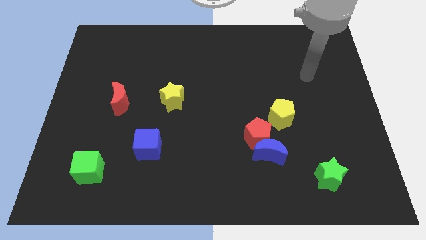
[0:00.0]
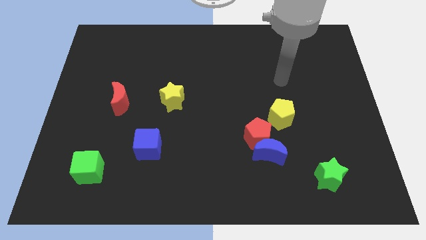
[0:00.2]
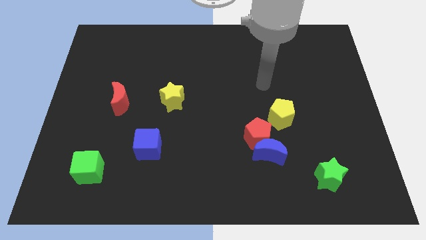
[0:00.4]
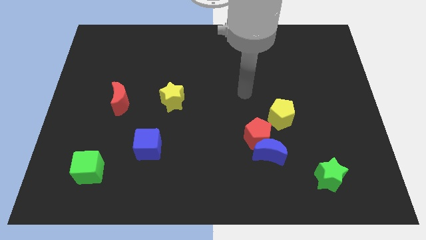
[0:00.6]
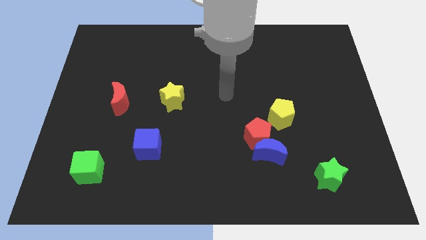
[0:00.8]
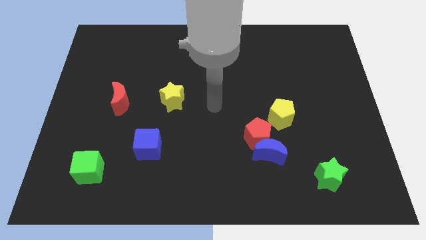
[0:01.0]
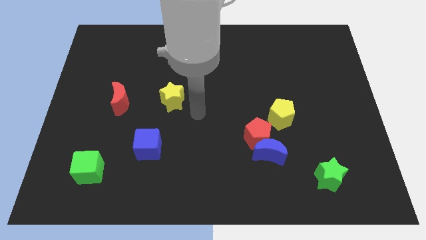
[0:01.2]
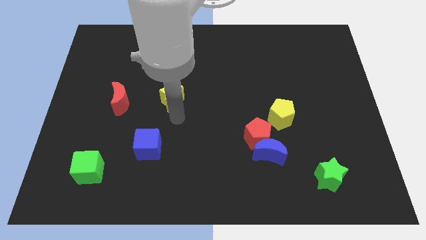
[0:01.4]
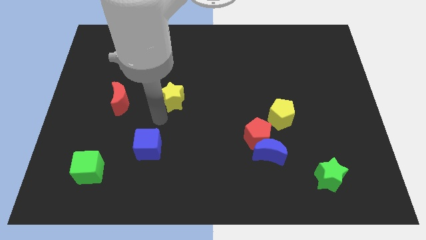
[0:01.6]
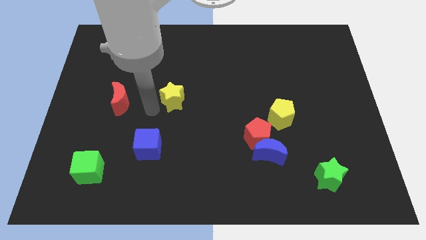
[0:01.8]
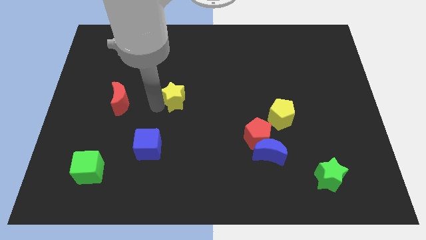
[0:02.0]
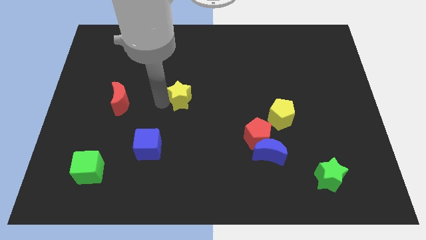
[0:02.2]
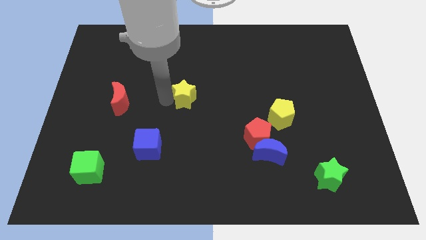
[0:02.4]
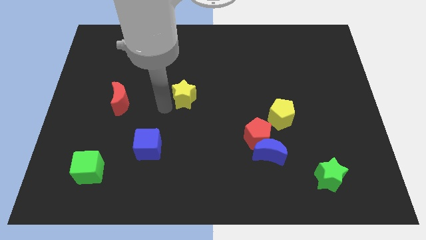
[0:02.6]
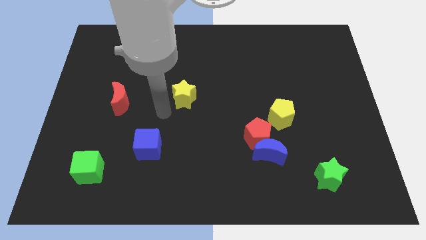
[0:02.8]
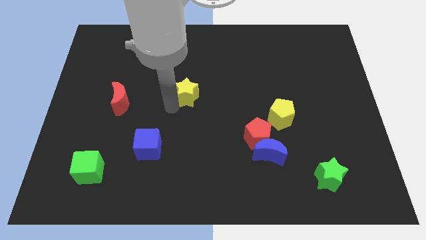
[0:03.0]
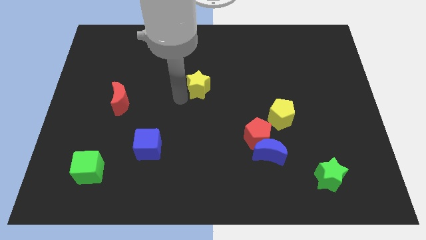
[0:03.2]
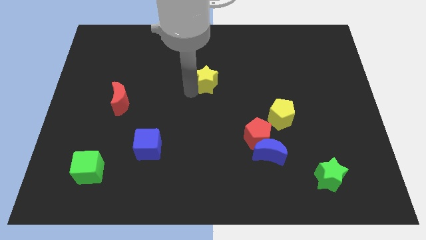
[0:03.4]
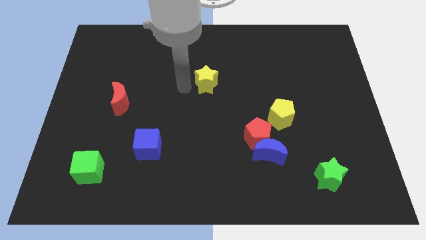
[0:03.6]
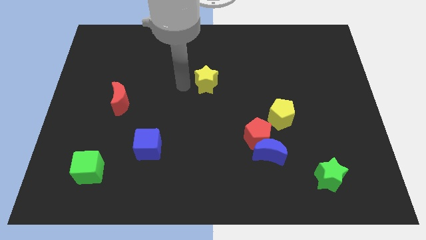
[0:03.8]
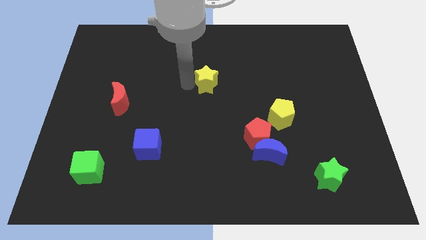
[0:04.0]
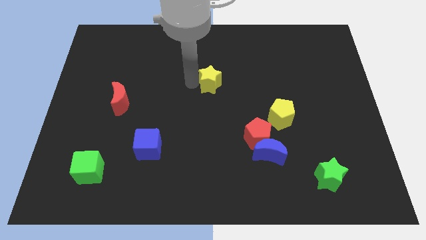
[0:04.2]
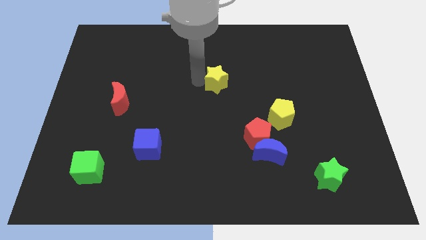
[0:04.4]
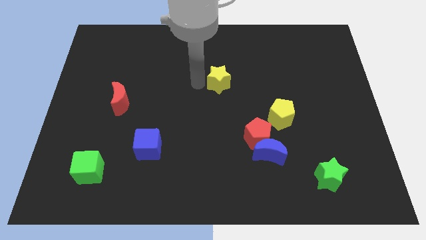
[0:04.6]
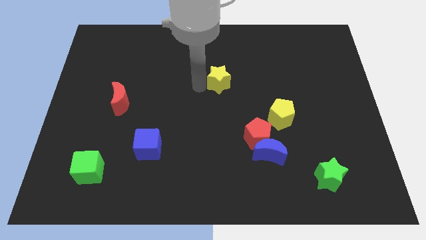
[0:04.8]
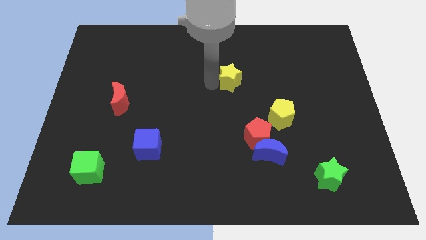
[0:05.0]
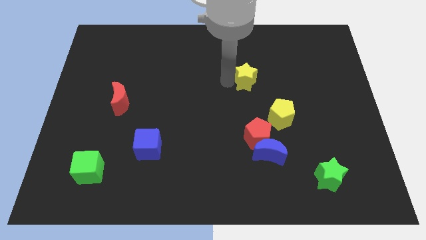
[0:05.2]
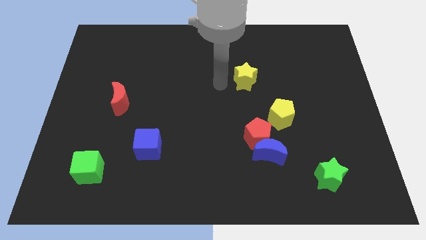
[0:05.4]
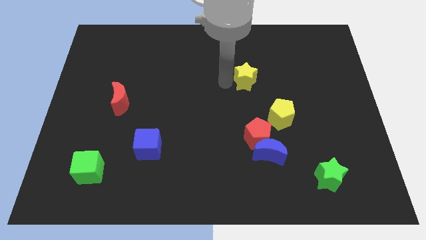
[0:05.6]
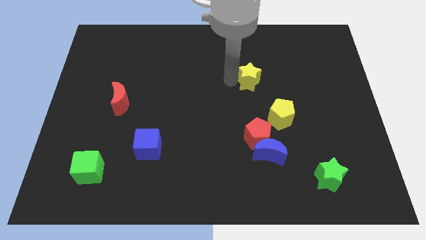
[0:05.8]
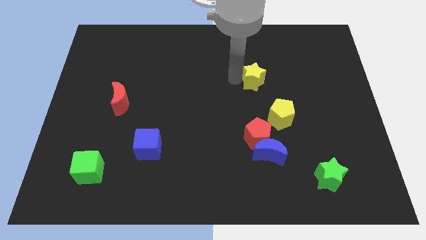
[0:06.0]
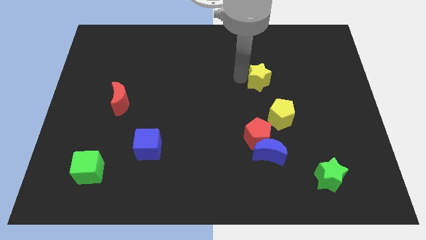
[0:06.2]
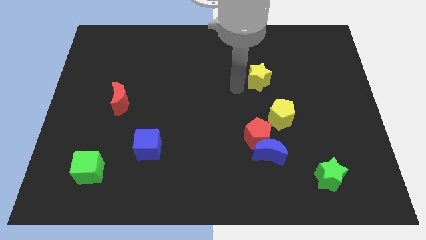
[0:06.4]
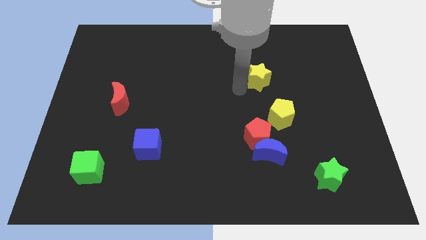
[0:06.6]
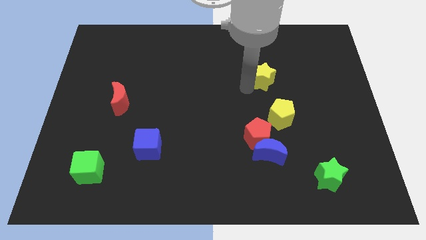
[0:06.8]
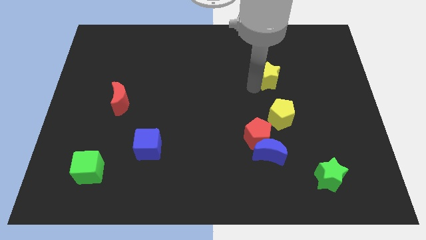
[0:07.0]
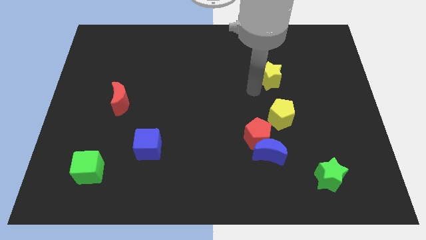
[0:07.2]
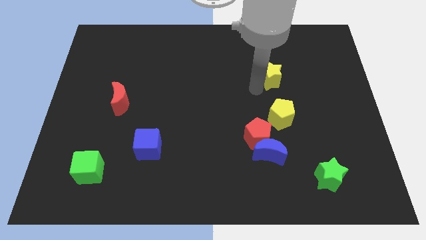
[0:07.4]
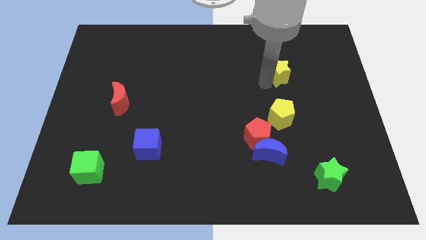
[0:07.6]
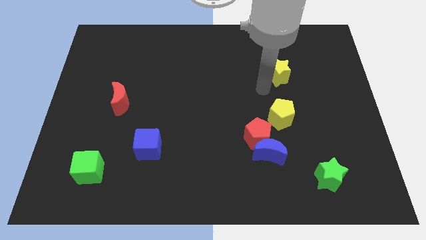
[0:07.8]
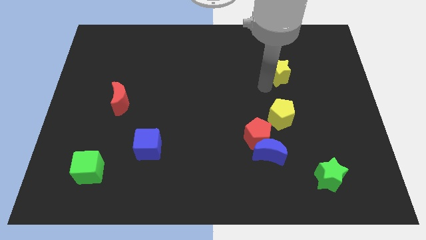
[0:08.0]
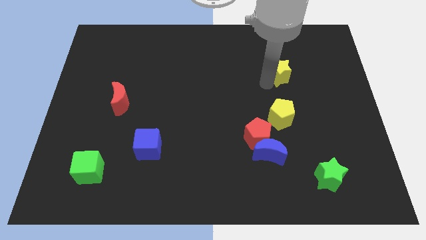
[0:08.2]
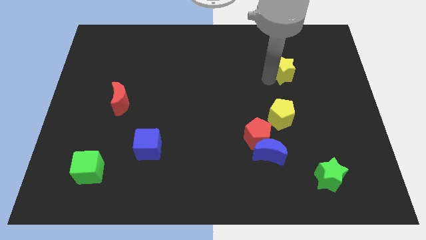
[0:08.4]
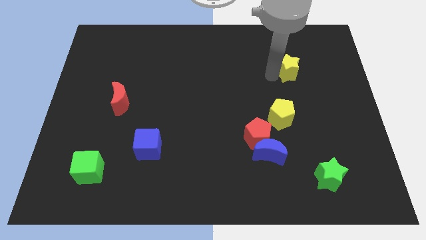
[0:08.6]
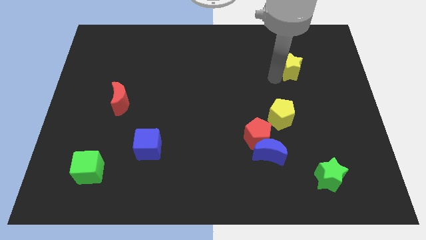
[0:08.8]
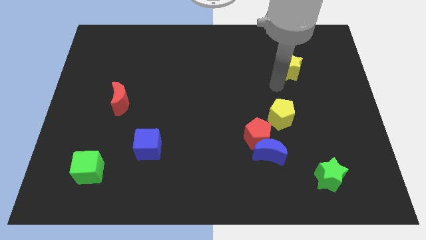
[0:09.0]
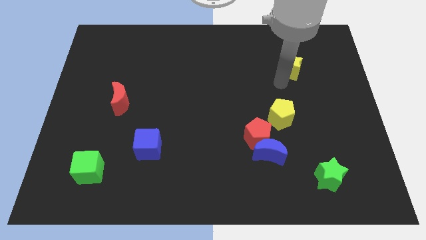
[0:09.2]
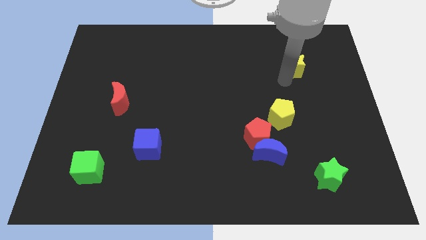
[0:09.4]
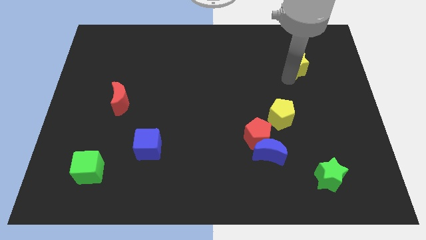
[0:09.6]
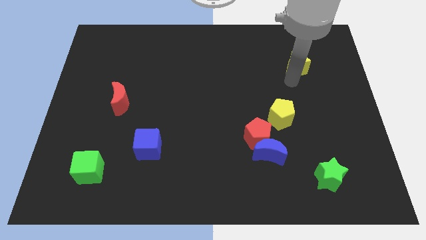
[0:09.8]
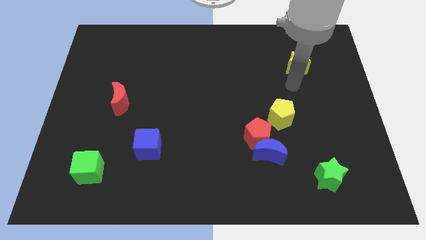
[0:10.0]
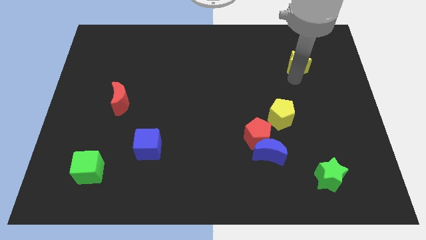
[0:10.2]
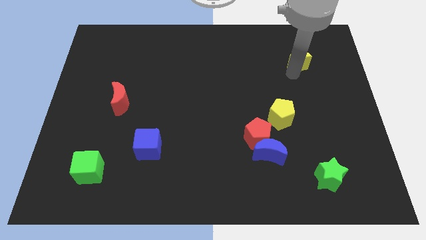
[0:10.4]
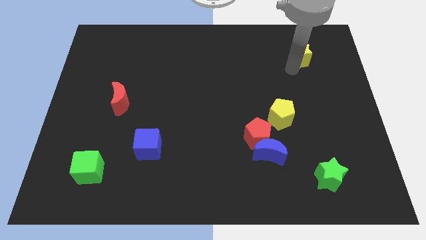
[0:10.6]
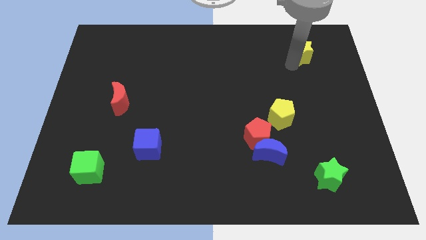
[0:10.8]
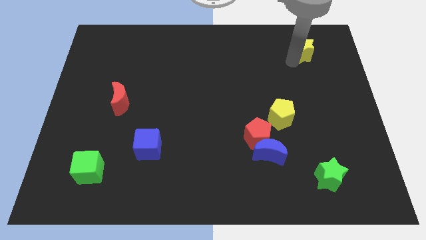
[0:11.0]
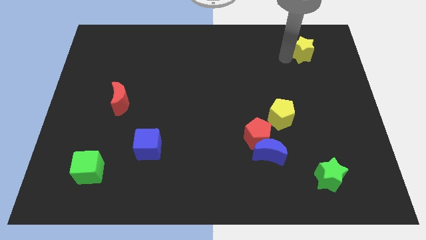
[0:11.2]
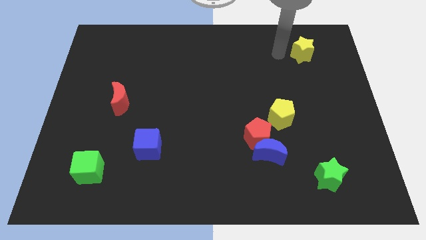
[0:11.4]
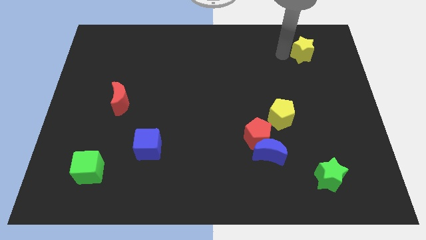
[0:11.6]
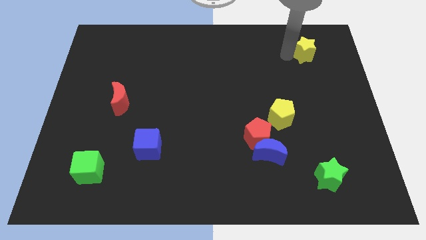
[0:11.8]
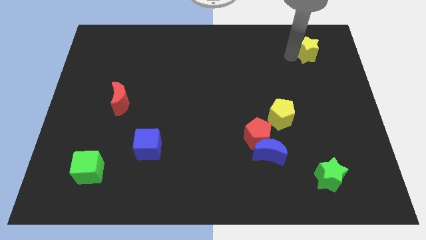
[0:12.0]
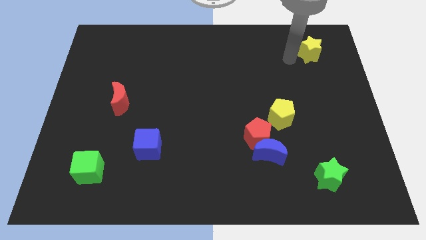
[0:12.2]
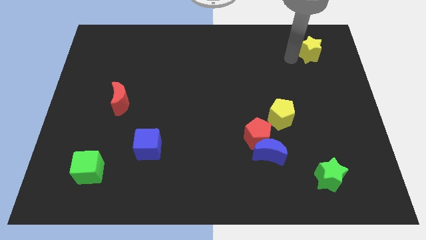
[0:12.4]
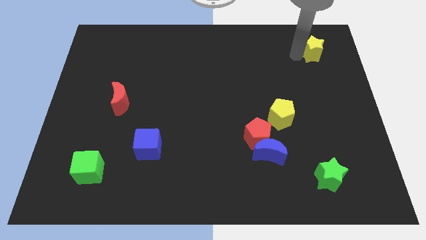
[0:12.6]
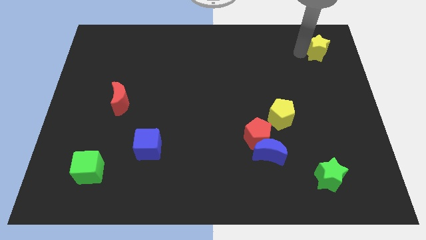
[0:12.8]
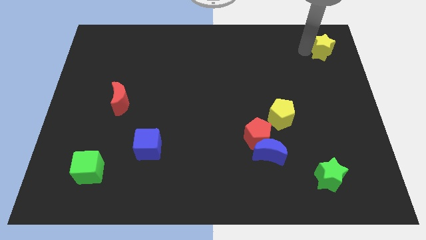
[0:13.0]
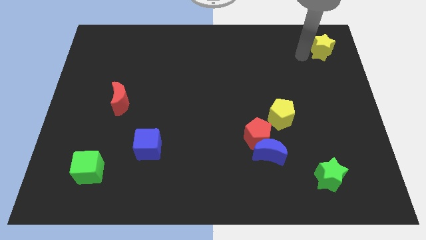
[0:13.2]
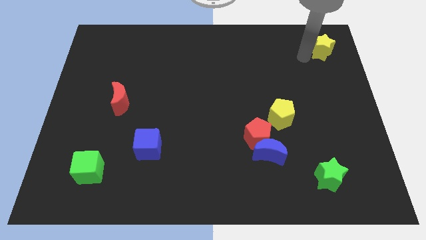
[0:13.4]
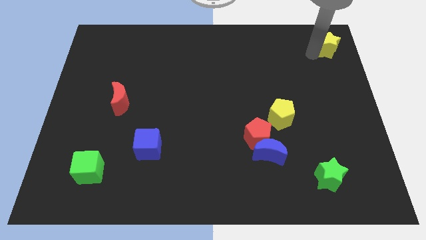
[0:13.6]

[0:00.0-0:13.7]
put the yellow star to the top right corner
